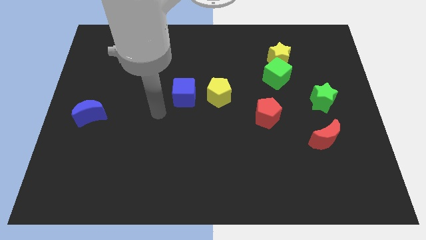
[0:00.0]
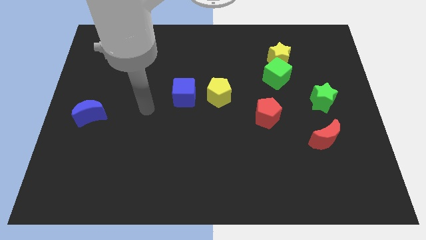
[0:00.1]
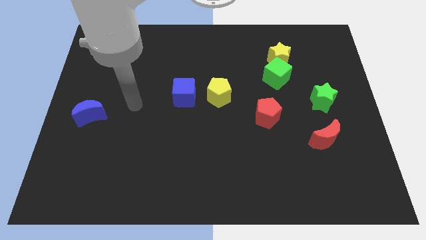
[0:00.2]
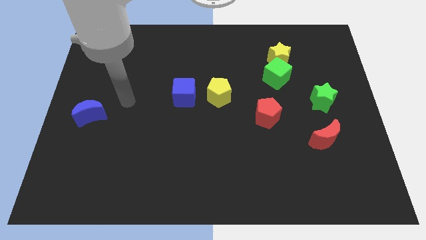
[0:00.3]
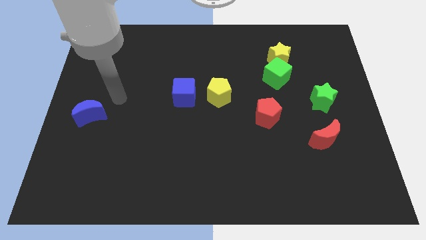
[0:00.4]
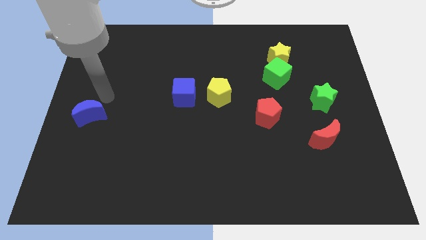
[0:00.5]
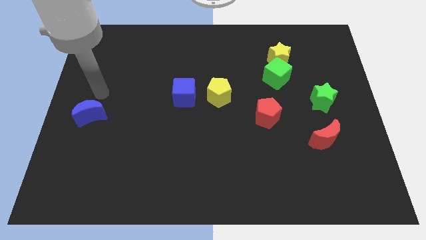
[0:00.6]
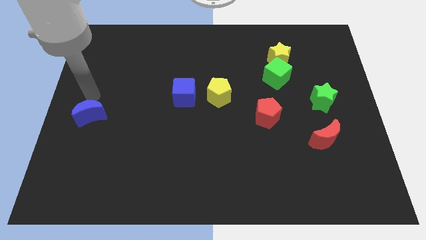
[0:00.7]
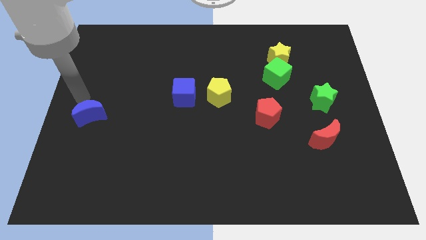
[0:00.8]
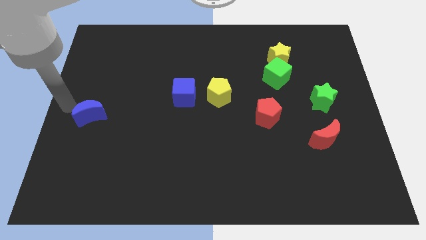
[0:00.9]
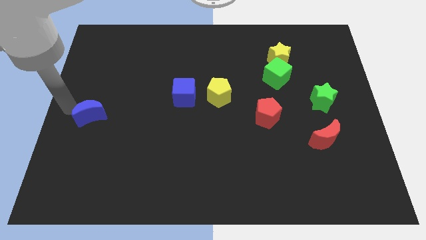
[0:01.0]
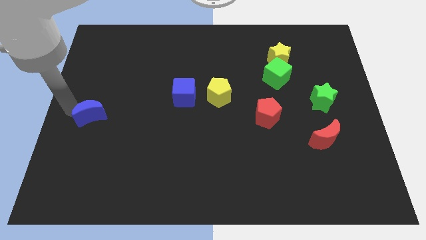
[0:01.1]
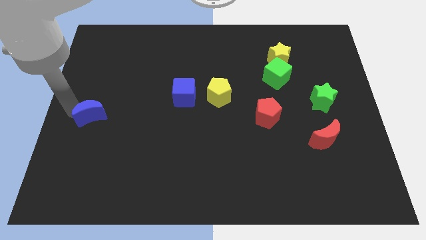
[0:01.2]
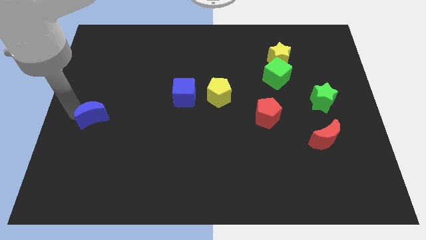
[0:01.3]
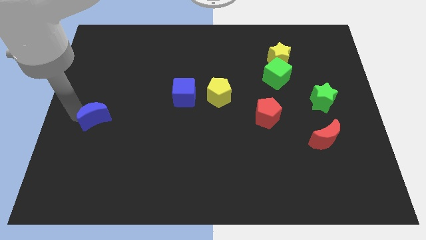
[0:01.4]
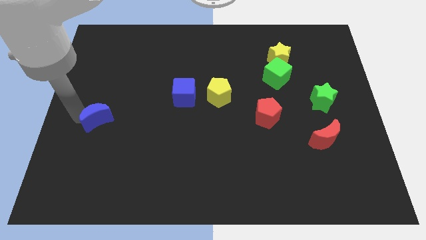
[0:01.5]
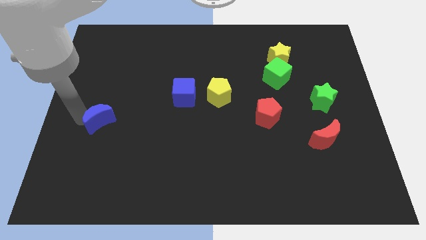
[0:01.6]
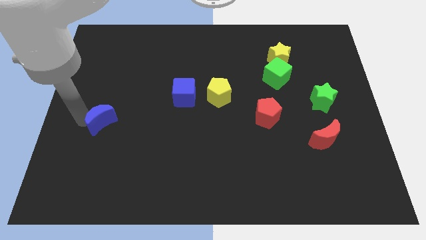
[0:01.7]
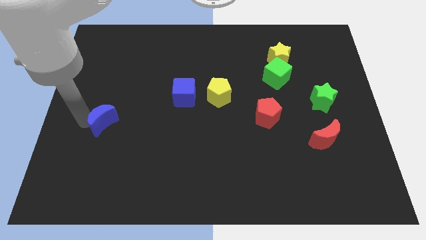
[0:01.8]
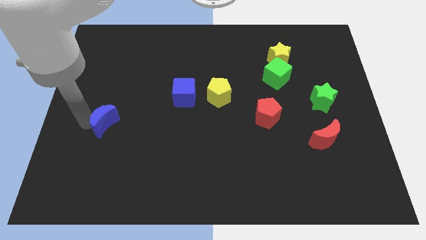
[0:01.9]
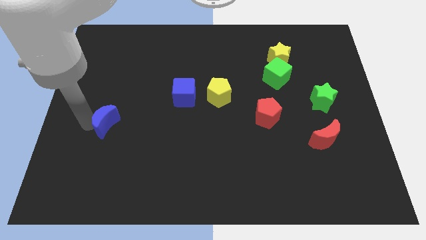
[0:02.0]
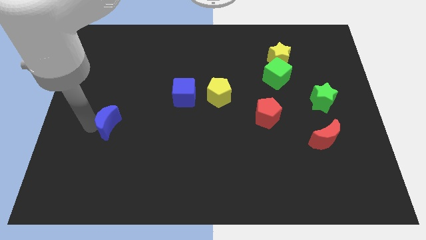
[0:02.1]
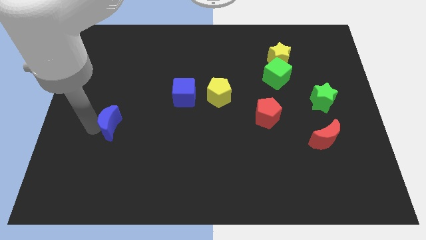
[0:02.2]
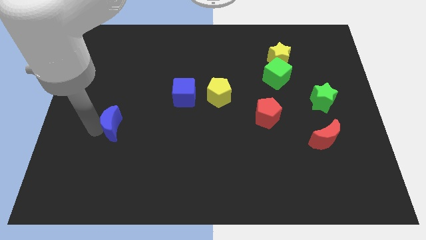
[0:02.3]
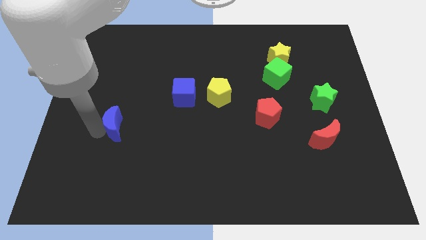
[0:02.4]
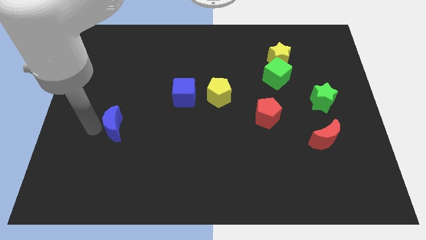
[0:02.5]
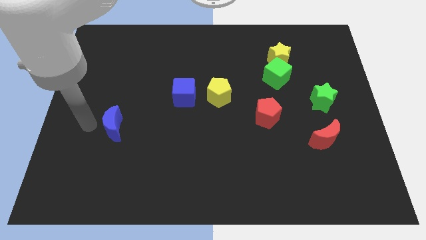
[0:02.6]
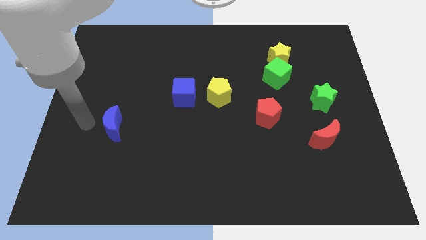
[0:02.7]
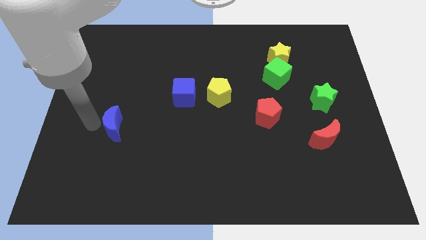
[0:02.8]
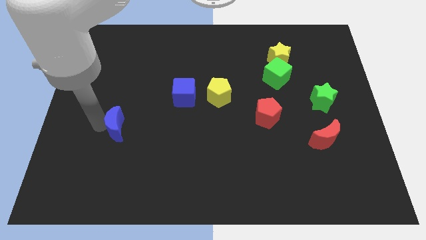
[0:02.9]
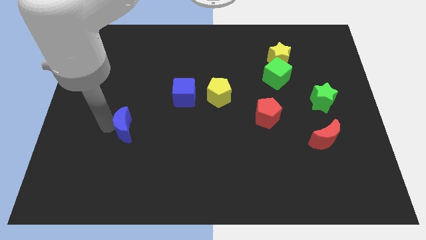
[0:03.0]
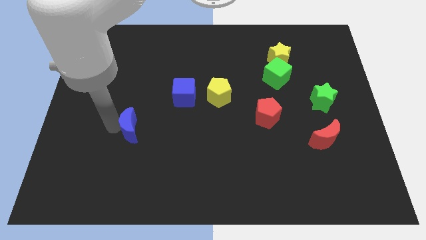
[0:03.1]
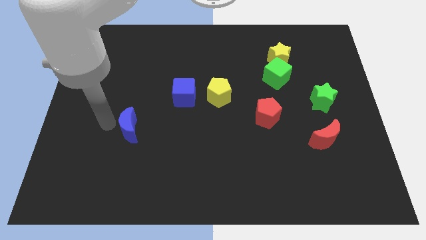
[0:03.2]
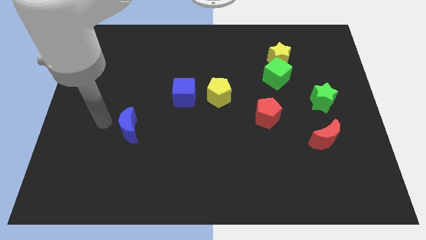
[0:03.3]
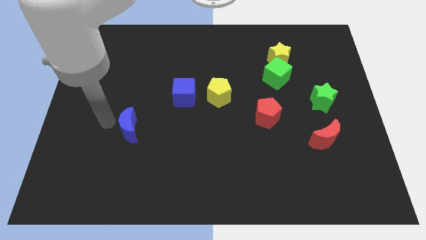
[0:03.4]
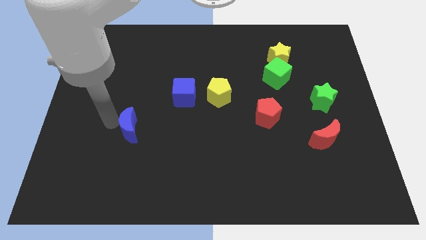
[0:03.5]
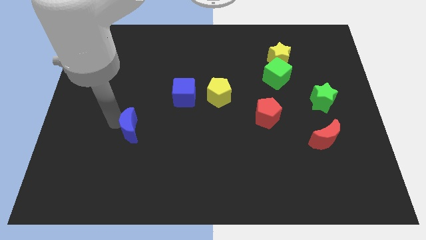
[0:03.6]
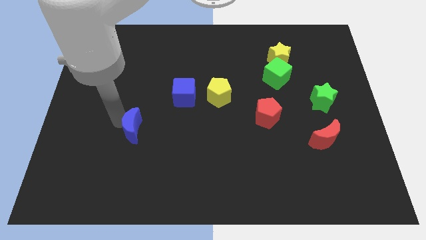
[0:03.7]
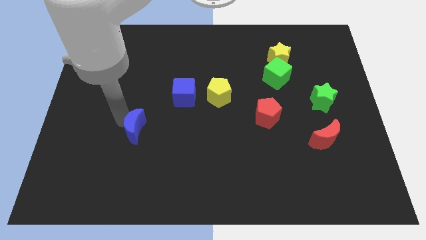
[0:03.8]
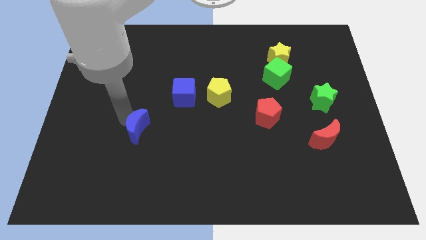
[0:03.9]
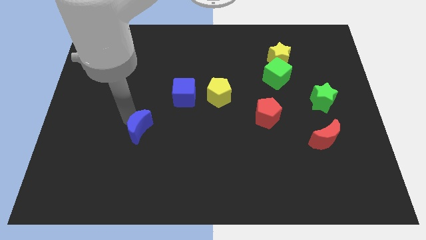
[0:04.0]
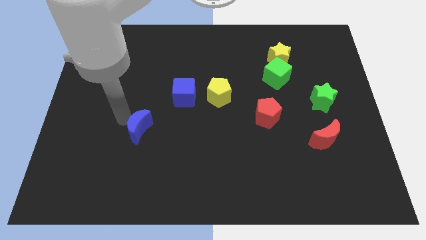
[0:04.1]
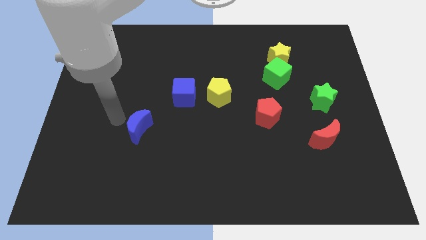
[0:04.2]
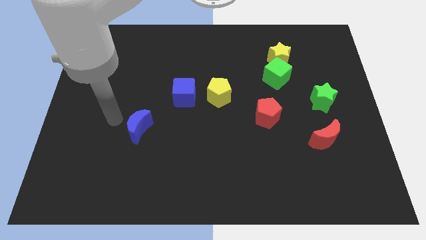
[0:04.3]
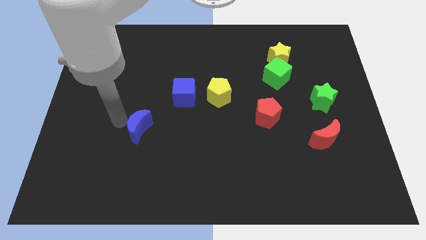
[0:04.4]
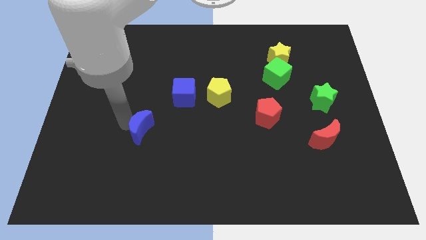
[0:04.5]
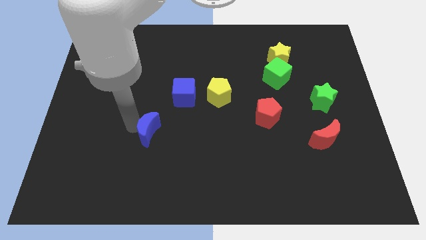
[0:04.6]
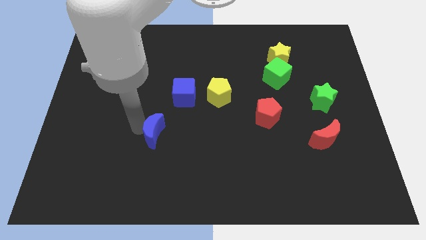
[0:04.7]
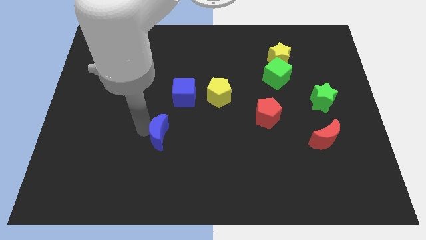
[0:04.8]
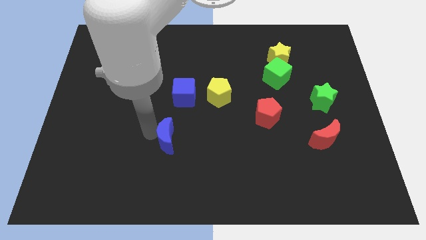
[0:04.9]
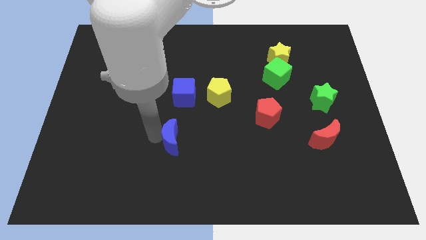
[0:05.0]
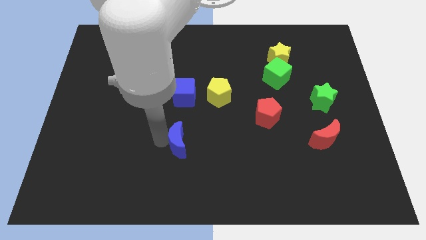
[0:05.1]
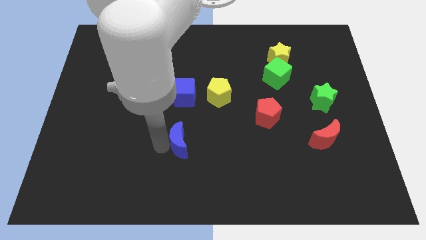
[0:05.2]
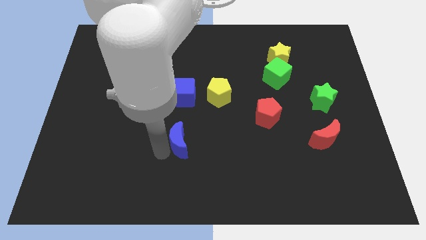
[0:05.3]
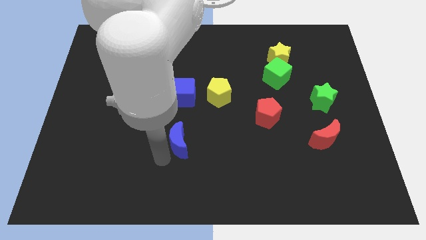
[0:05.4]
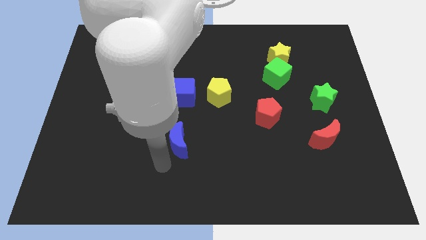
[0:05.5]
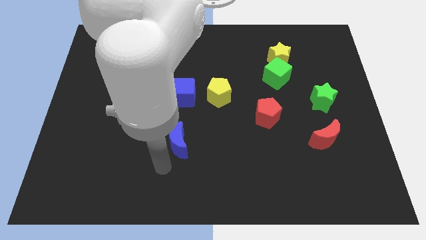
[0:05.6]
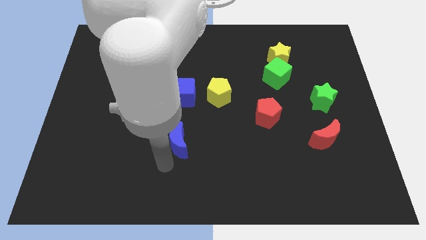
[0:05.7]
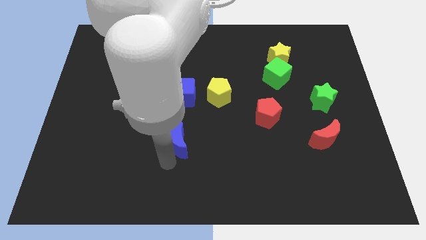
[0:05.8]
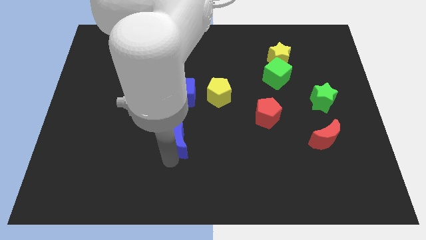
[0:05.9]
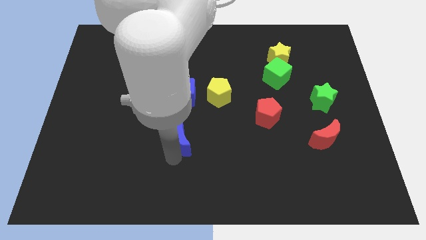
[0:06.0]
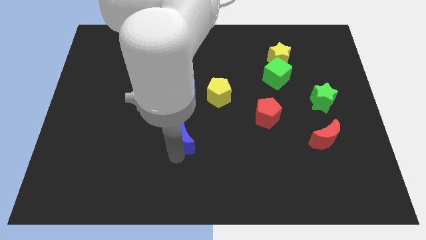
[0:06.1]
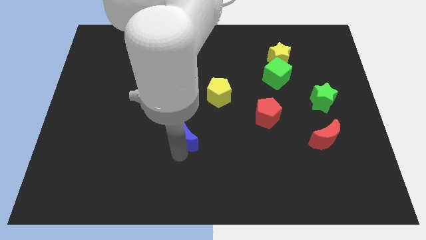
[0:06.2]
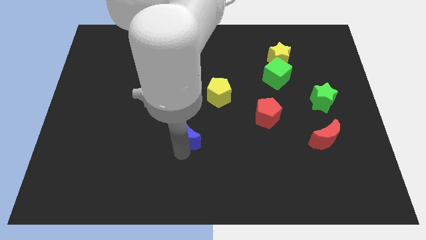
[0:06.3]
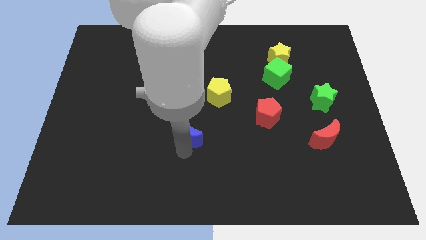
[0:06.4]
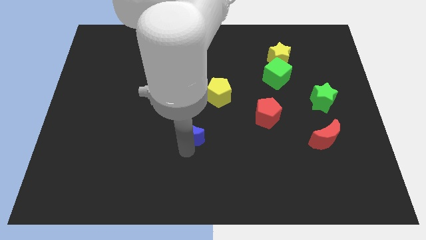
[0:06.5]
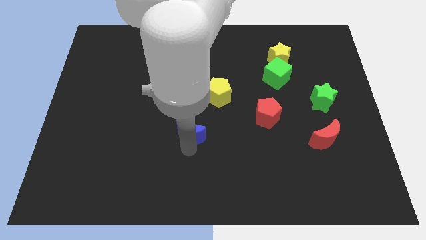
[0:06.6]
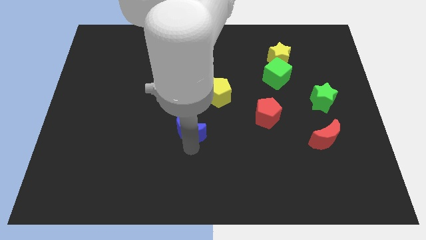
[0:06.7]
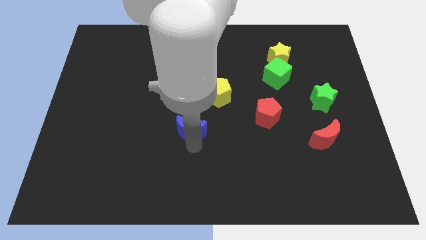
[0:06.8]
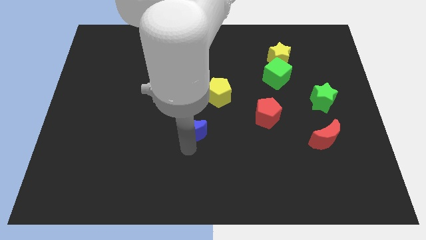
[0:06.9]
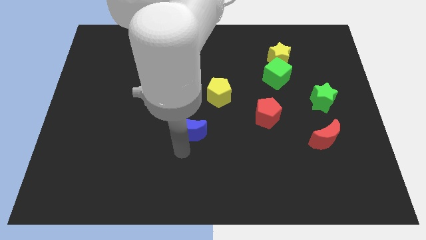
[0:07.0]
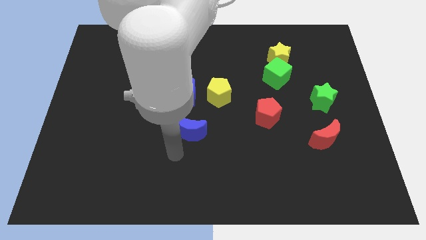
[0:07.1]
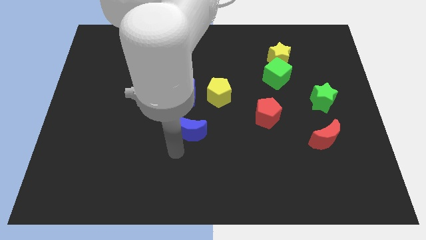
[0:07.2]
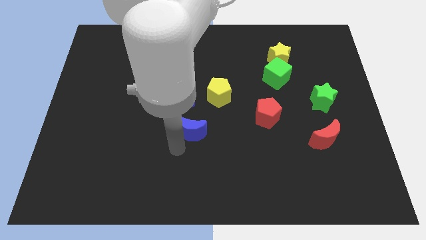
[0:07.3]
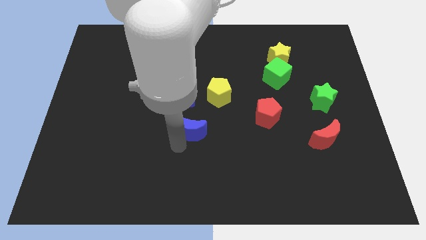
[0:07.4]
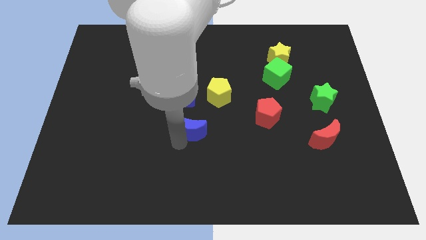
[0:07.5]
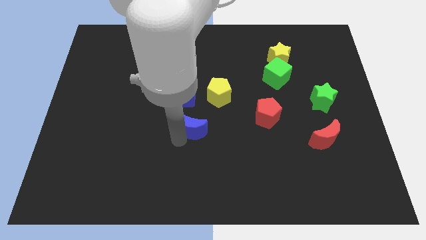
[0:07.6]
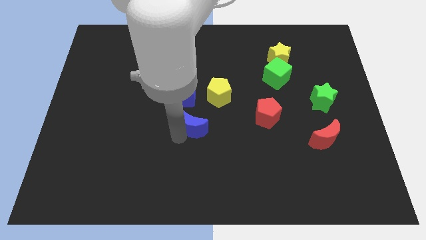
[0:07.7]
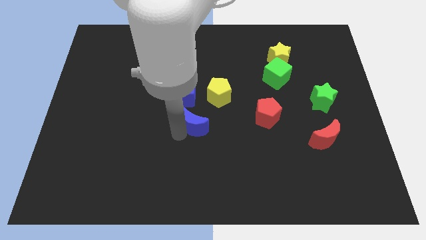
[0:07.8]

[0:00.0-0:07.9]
move the blue moon to the bottom right of the blue cube
